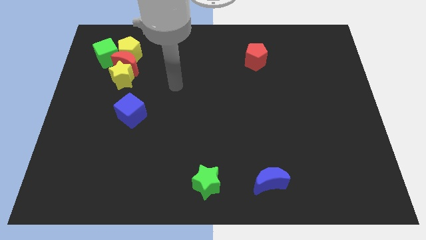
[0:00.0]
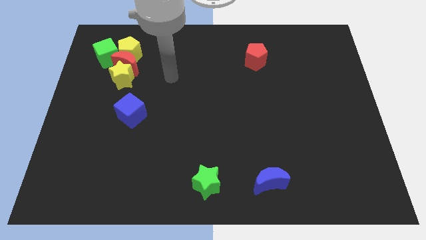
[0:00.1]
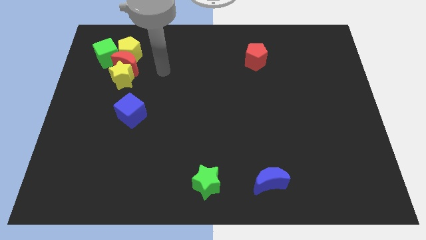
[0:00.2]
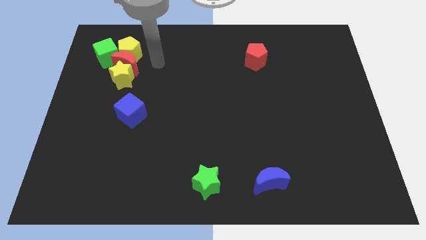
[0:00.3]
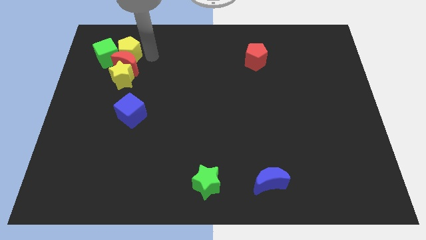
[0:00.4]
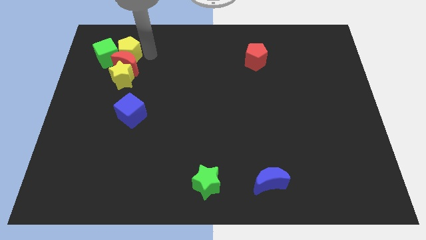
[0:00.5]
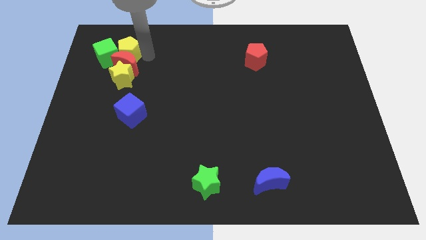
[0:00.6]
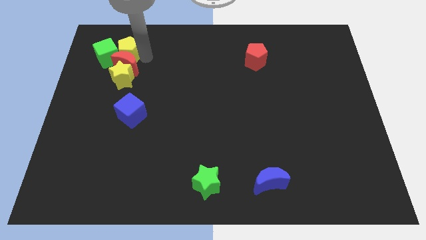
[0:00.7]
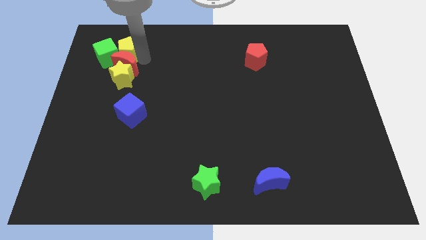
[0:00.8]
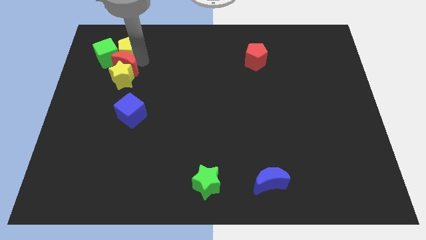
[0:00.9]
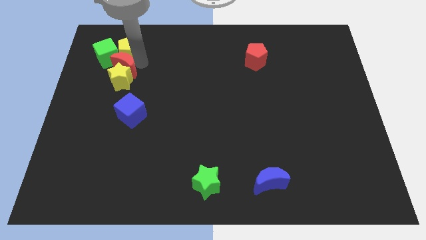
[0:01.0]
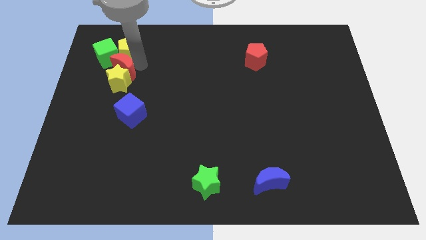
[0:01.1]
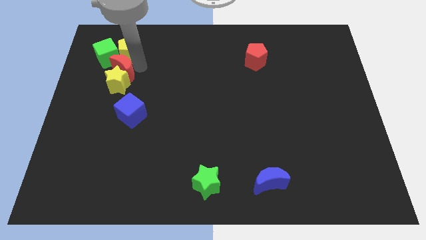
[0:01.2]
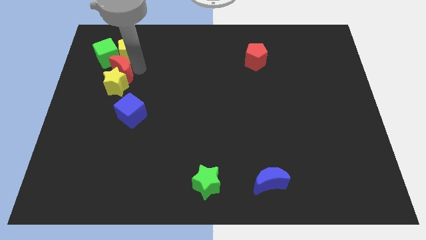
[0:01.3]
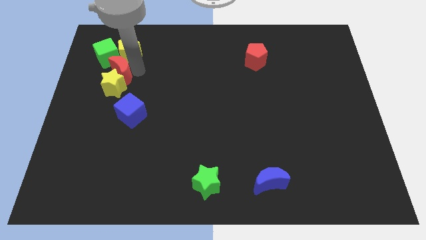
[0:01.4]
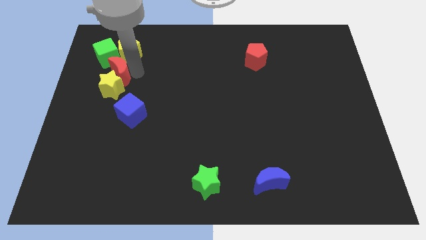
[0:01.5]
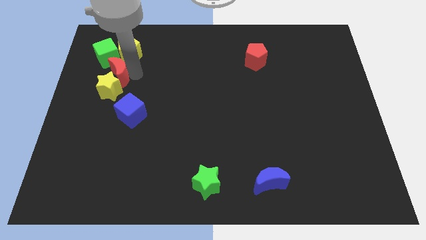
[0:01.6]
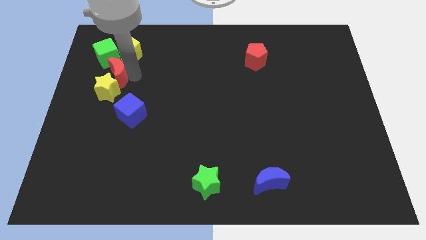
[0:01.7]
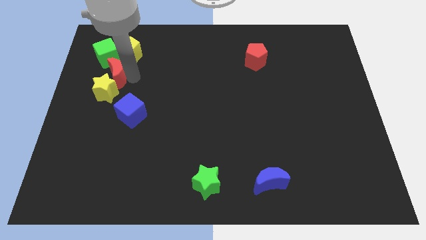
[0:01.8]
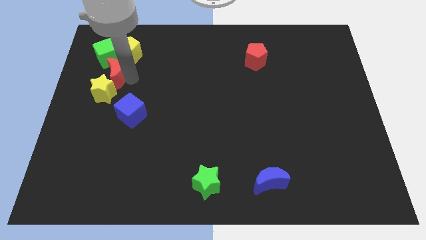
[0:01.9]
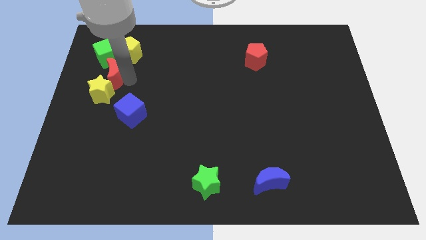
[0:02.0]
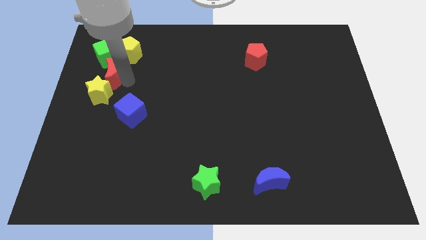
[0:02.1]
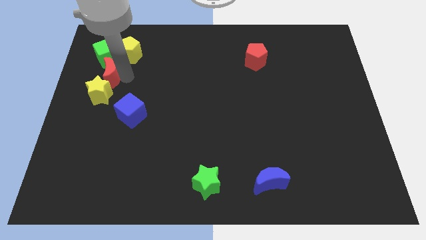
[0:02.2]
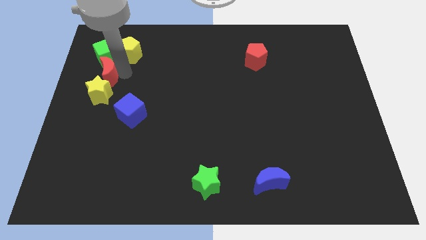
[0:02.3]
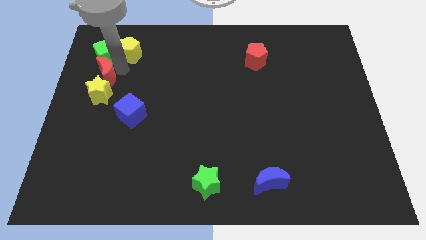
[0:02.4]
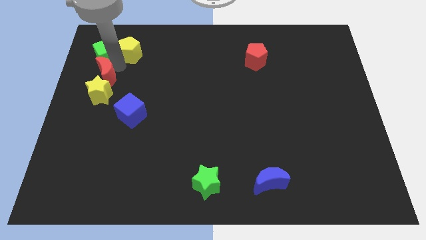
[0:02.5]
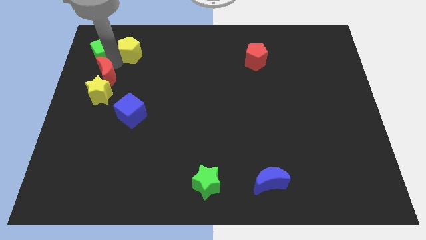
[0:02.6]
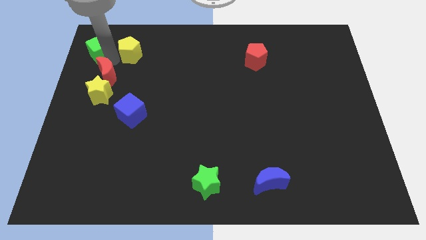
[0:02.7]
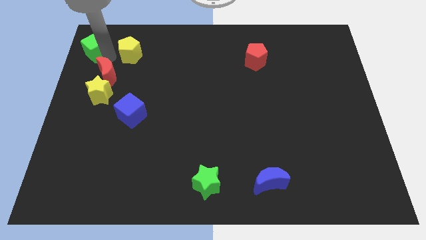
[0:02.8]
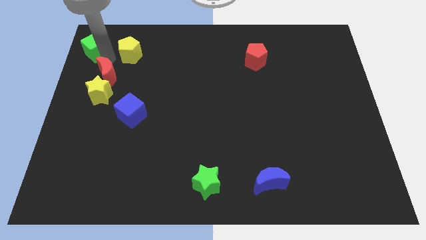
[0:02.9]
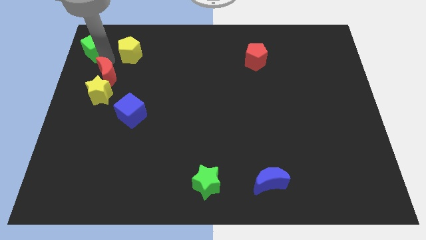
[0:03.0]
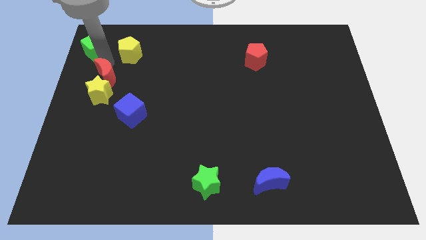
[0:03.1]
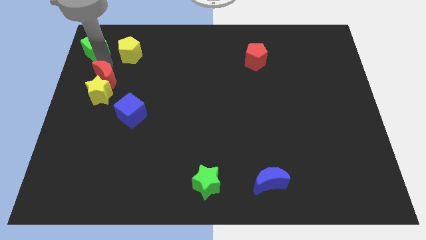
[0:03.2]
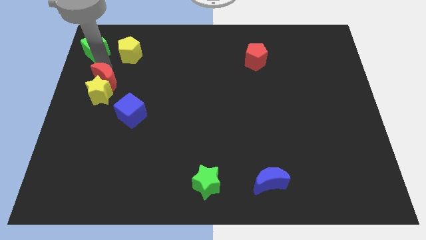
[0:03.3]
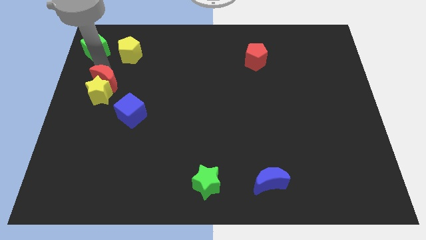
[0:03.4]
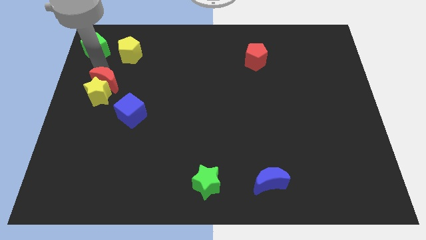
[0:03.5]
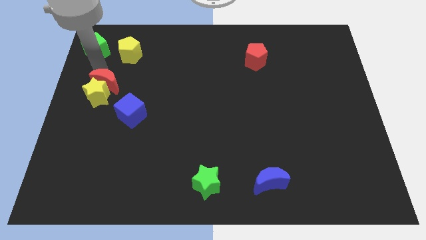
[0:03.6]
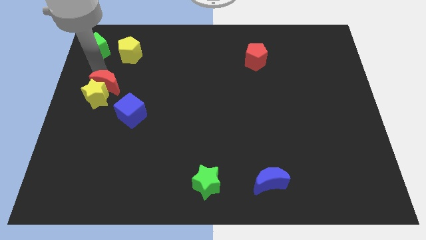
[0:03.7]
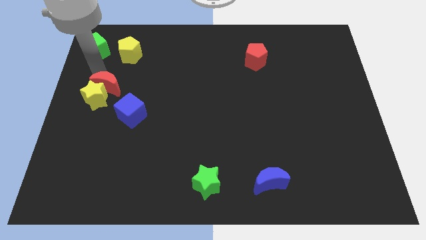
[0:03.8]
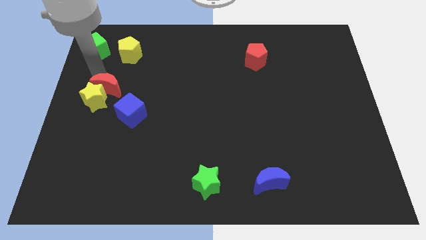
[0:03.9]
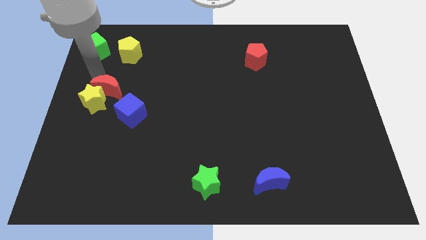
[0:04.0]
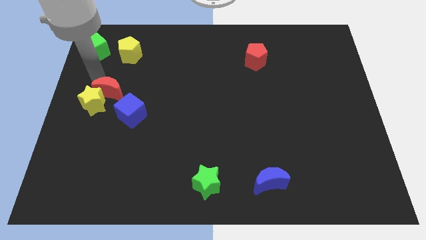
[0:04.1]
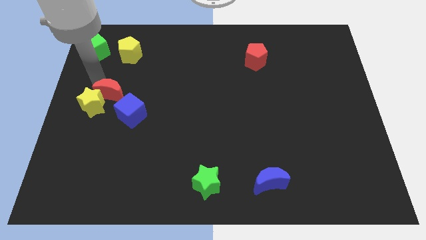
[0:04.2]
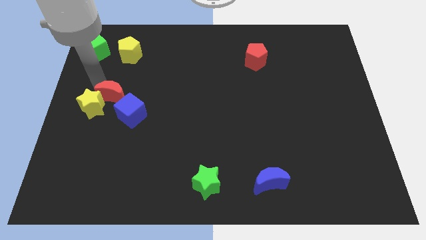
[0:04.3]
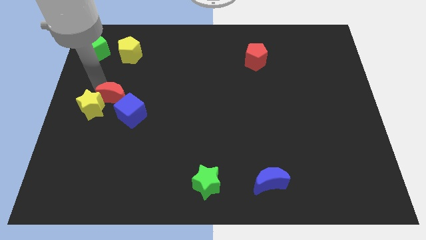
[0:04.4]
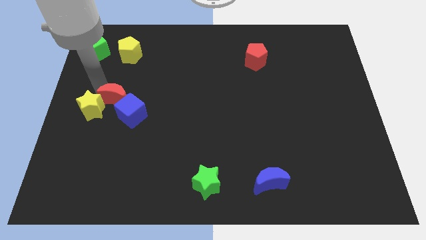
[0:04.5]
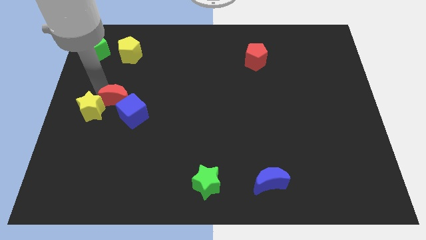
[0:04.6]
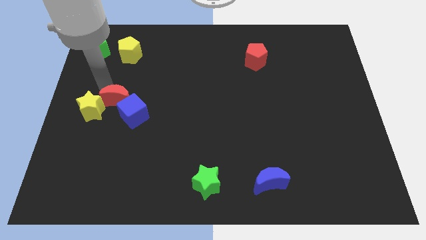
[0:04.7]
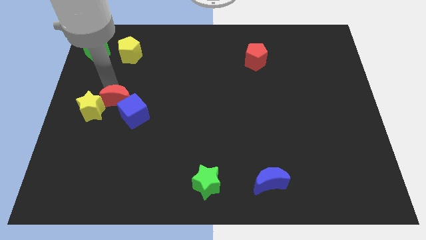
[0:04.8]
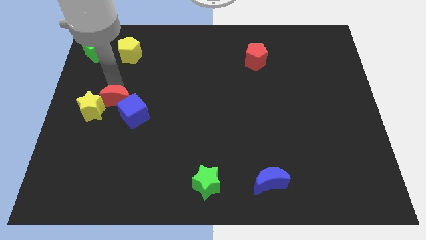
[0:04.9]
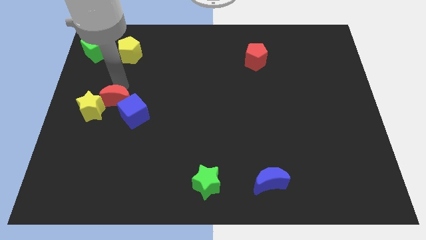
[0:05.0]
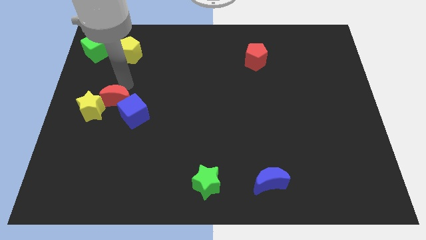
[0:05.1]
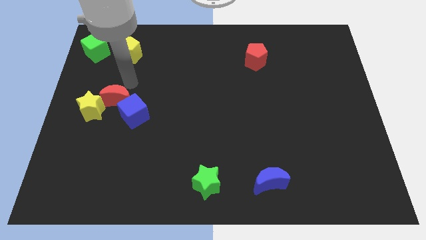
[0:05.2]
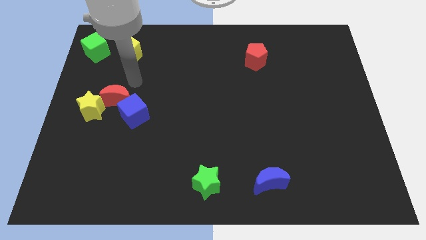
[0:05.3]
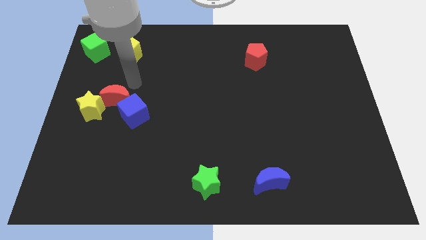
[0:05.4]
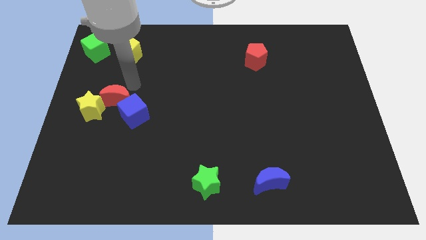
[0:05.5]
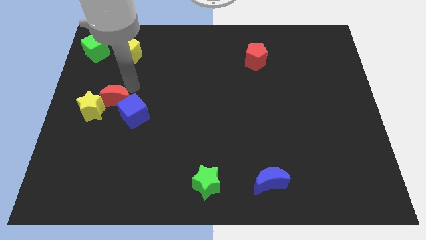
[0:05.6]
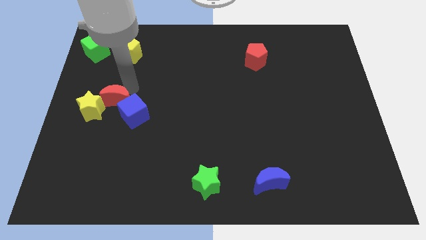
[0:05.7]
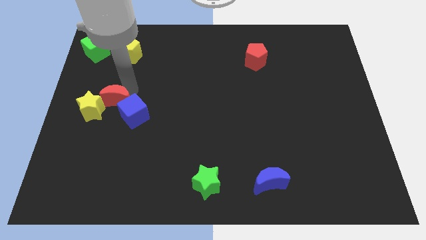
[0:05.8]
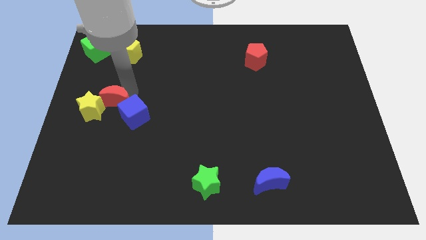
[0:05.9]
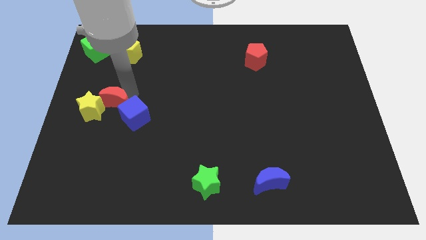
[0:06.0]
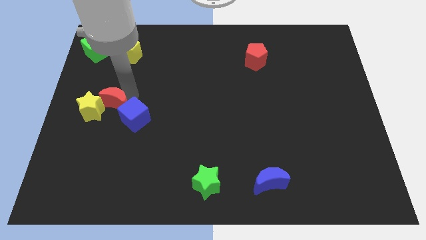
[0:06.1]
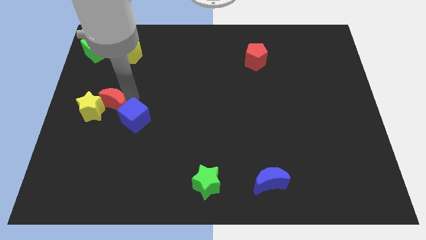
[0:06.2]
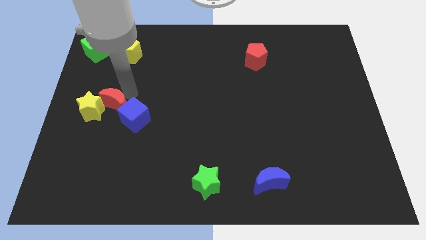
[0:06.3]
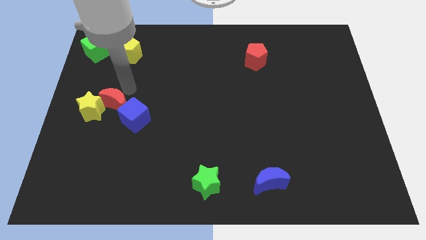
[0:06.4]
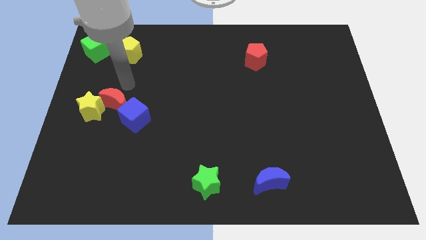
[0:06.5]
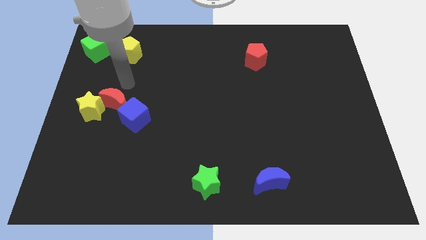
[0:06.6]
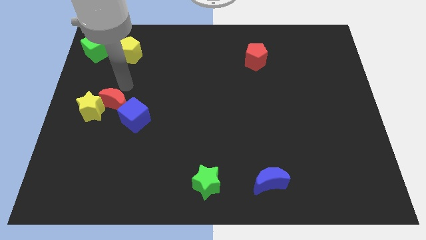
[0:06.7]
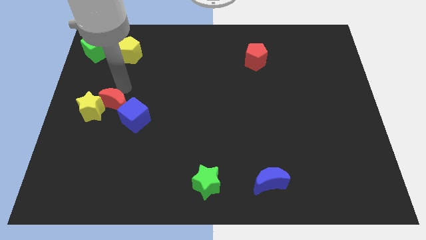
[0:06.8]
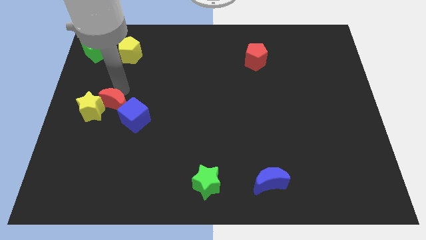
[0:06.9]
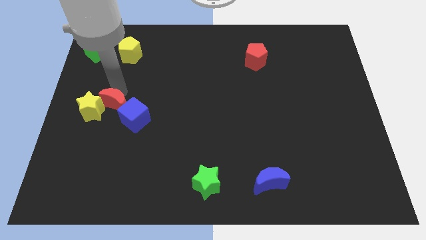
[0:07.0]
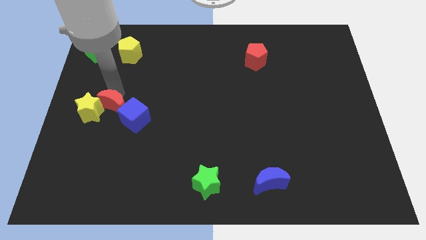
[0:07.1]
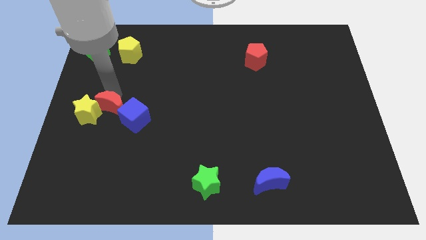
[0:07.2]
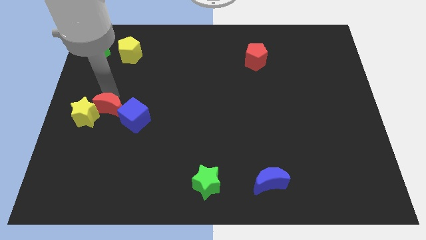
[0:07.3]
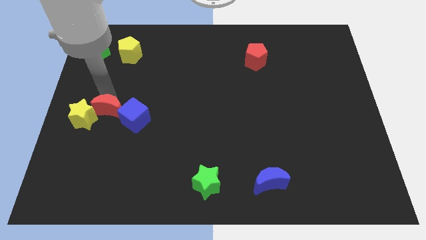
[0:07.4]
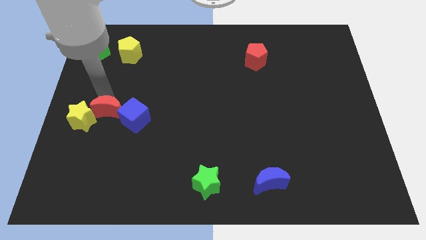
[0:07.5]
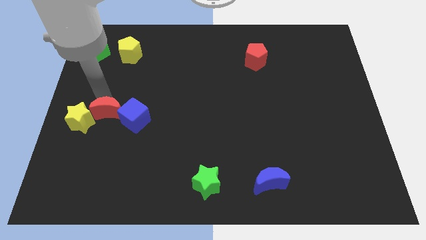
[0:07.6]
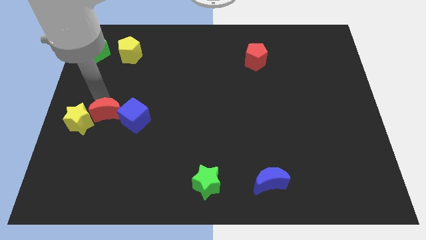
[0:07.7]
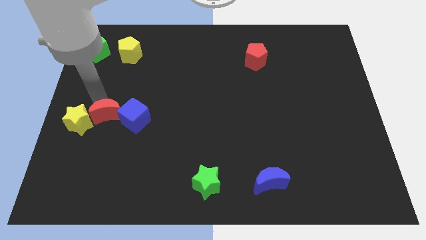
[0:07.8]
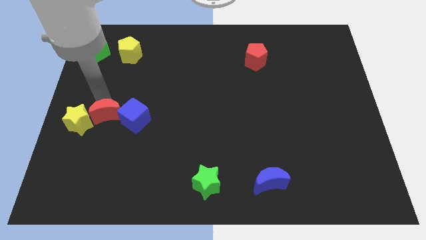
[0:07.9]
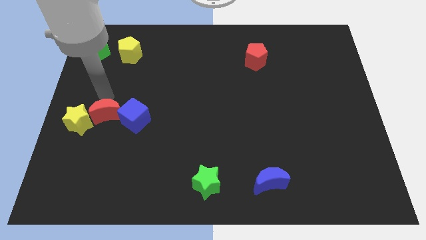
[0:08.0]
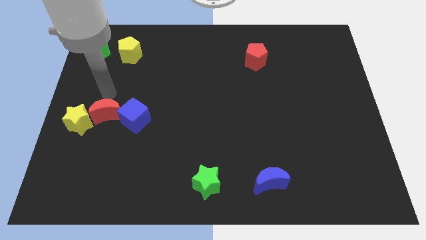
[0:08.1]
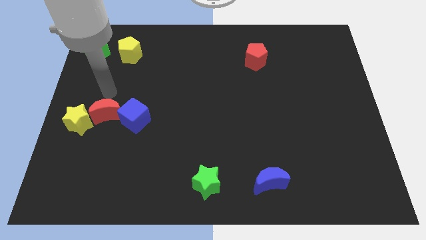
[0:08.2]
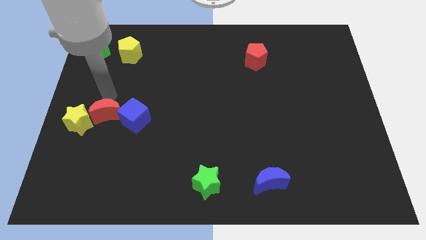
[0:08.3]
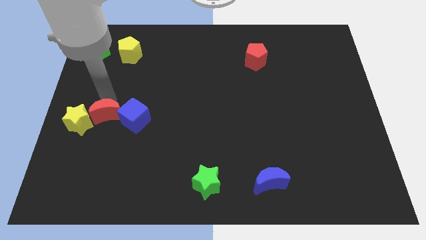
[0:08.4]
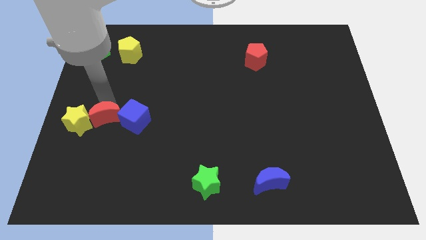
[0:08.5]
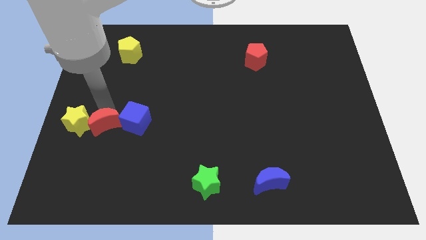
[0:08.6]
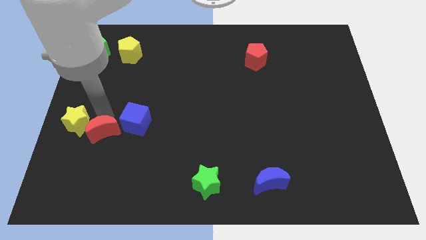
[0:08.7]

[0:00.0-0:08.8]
move the red moon down
